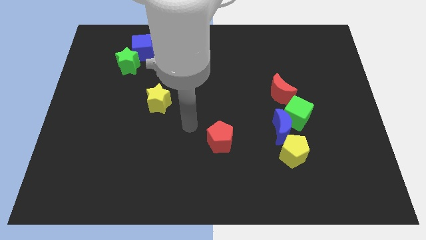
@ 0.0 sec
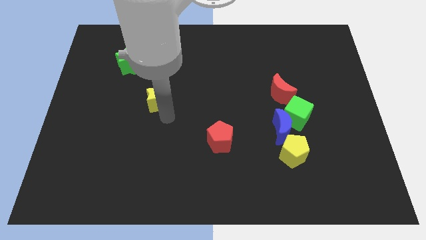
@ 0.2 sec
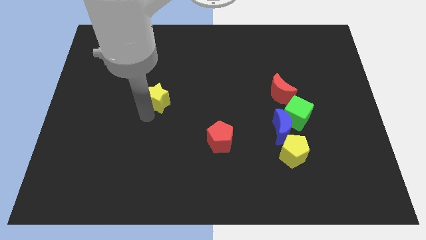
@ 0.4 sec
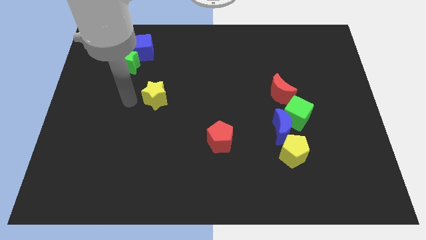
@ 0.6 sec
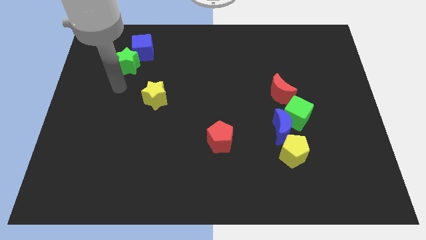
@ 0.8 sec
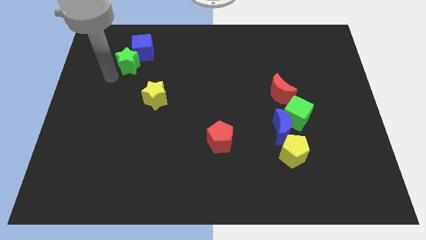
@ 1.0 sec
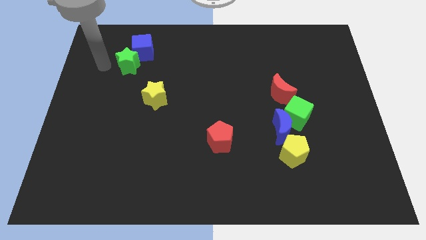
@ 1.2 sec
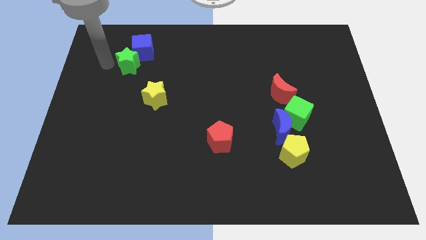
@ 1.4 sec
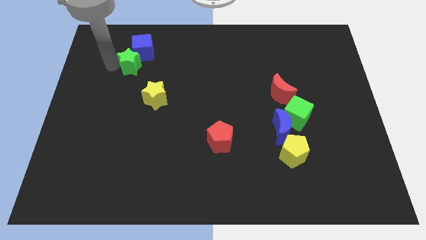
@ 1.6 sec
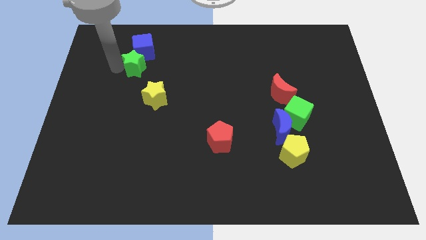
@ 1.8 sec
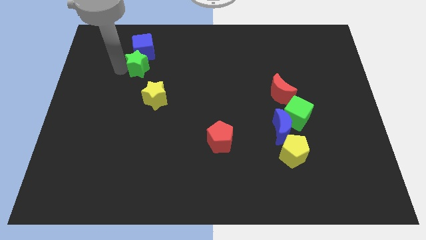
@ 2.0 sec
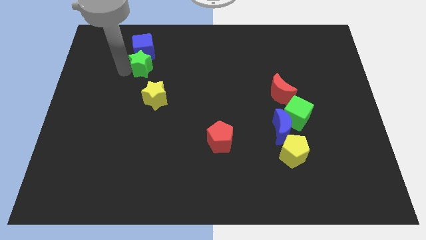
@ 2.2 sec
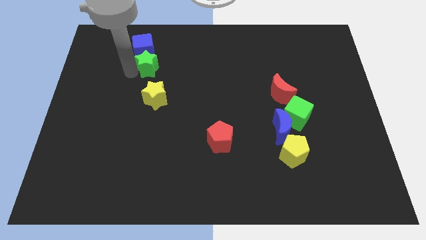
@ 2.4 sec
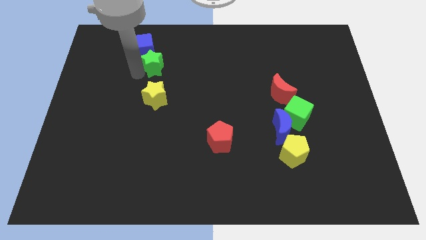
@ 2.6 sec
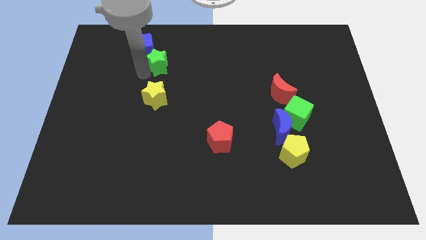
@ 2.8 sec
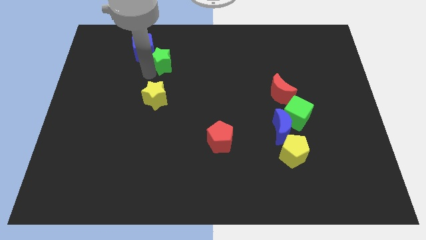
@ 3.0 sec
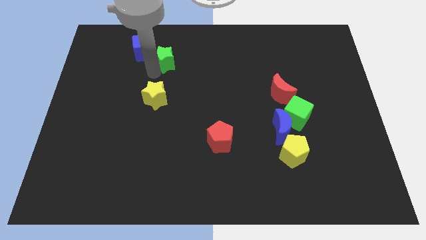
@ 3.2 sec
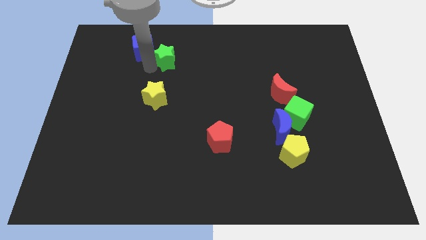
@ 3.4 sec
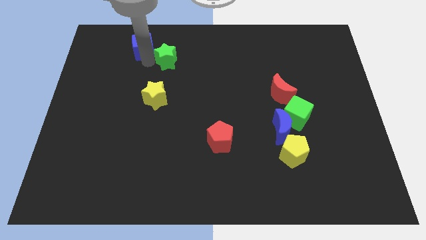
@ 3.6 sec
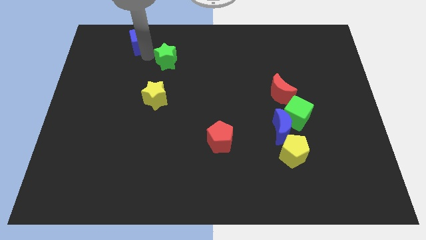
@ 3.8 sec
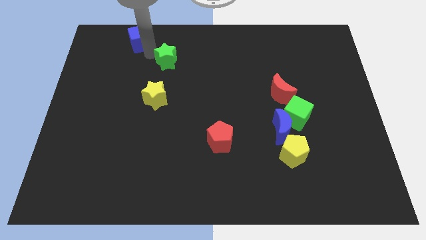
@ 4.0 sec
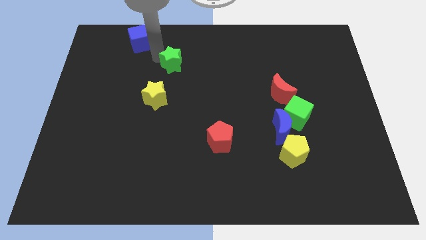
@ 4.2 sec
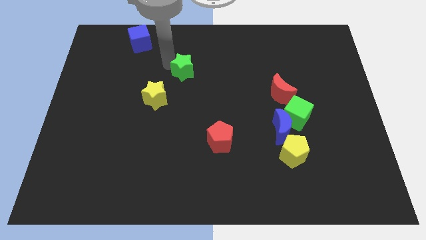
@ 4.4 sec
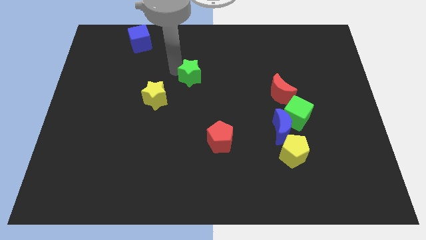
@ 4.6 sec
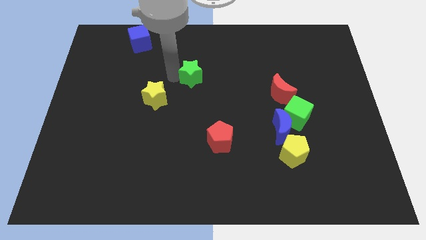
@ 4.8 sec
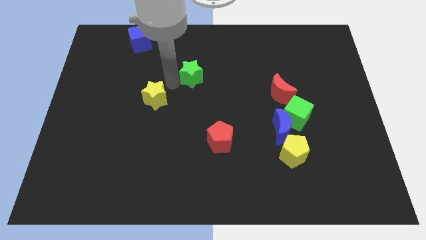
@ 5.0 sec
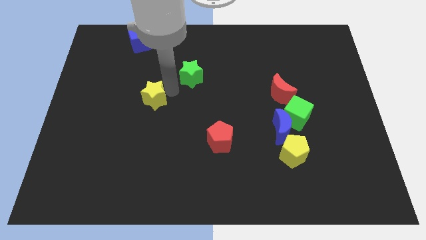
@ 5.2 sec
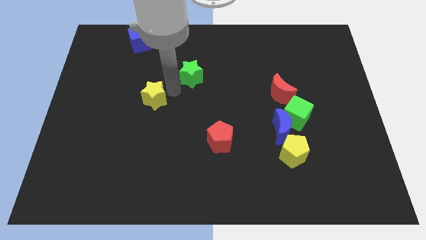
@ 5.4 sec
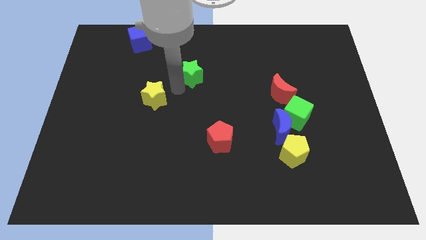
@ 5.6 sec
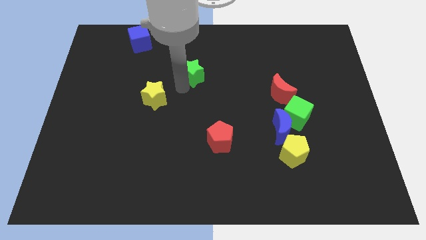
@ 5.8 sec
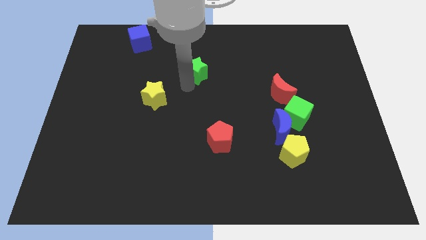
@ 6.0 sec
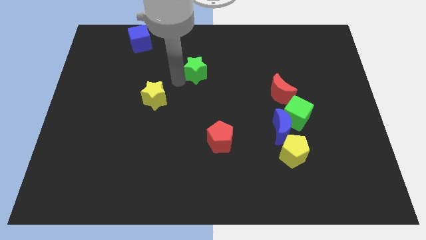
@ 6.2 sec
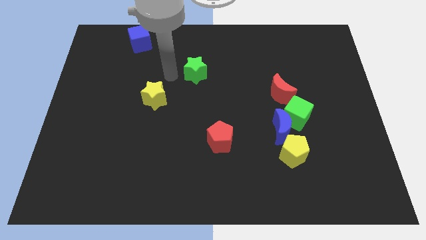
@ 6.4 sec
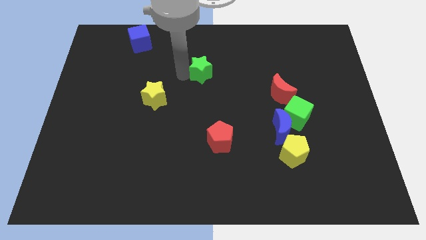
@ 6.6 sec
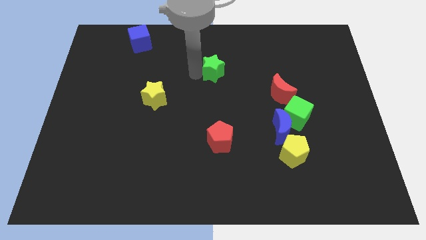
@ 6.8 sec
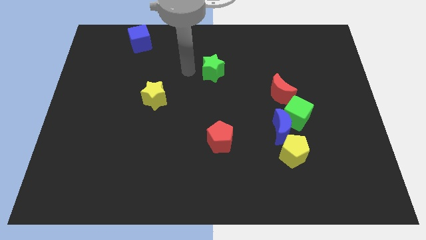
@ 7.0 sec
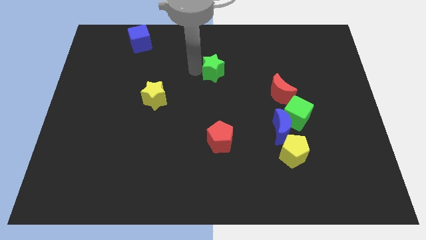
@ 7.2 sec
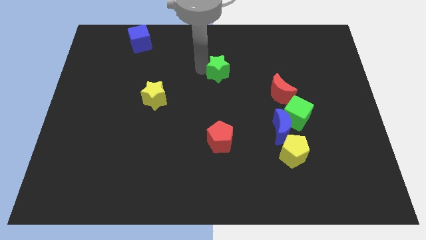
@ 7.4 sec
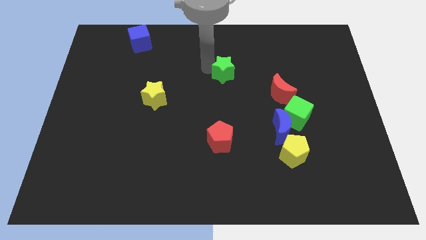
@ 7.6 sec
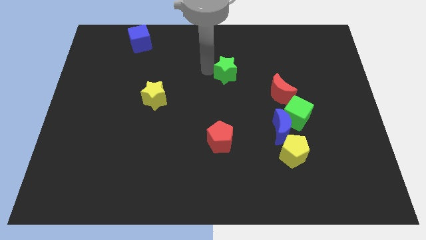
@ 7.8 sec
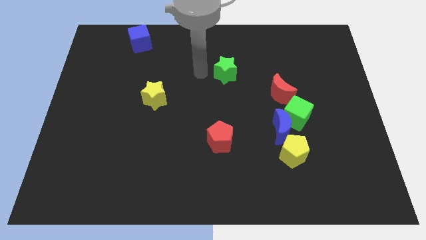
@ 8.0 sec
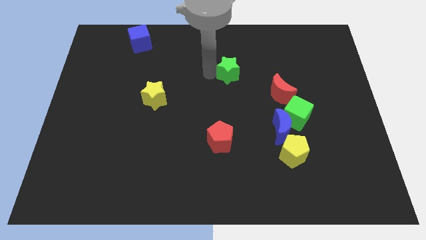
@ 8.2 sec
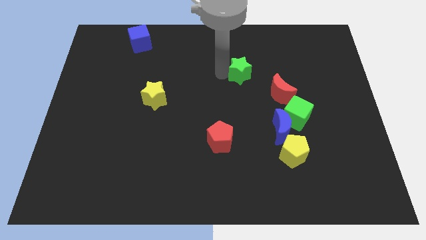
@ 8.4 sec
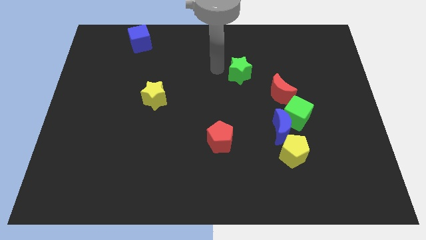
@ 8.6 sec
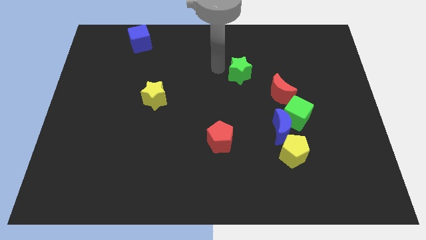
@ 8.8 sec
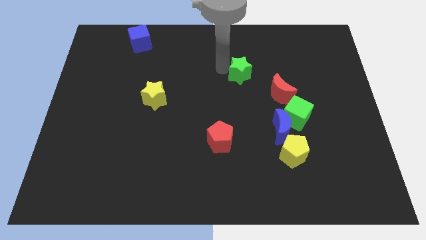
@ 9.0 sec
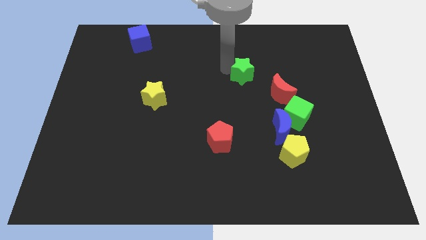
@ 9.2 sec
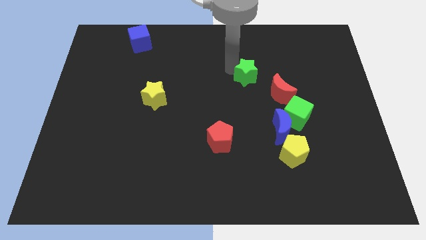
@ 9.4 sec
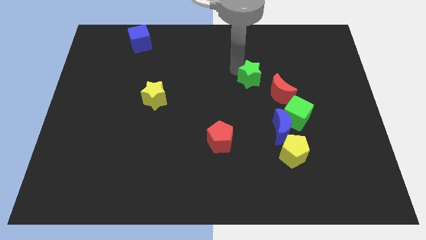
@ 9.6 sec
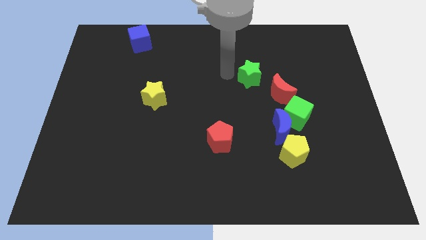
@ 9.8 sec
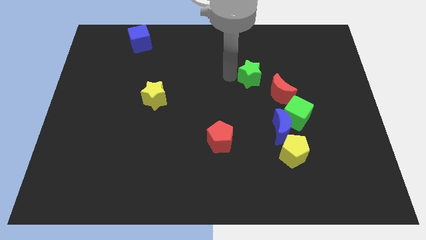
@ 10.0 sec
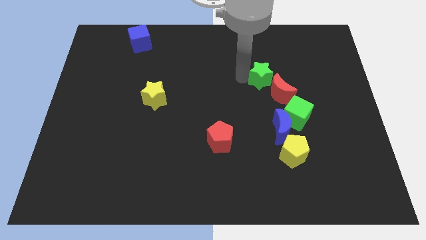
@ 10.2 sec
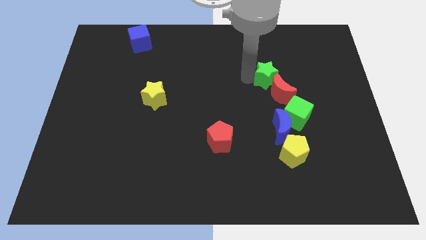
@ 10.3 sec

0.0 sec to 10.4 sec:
put the green star above the blue moon

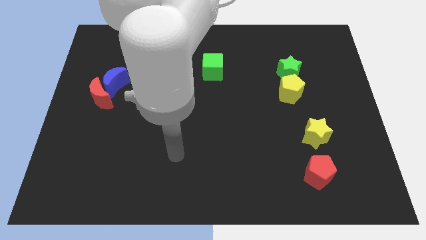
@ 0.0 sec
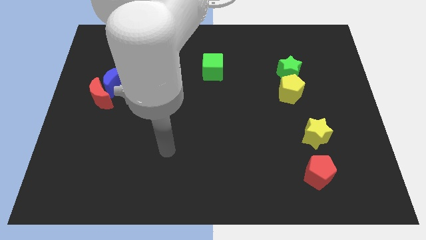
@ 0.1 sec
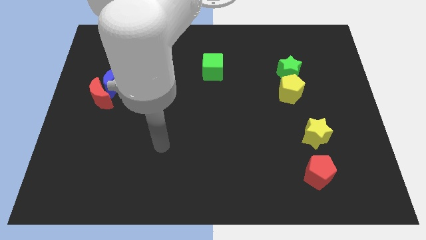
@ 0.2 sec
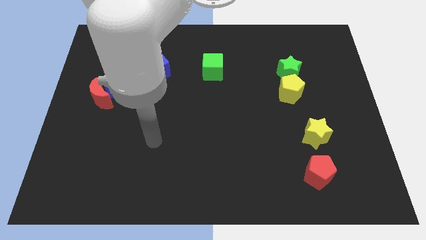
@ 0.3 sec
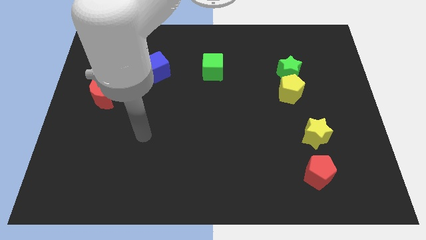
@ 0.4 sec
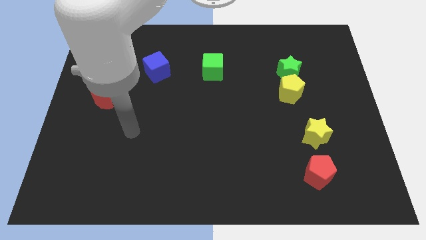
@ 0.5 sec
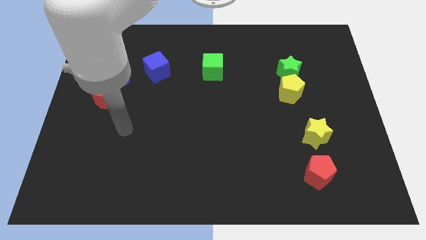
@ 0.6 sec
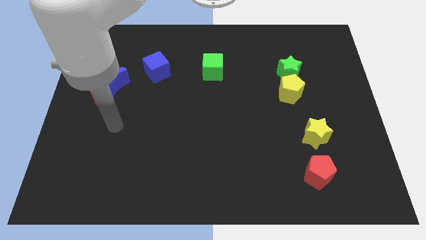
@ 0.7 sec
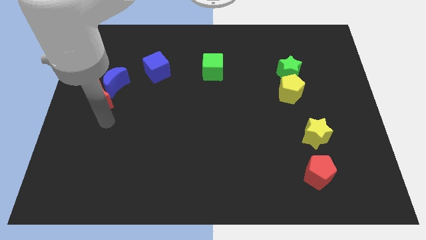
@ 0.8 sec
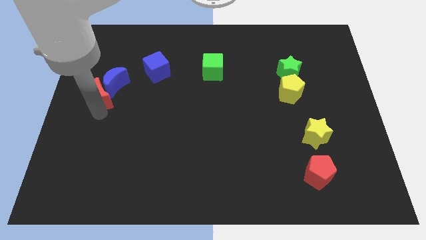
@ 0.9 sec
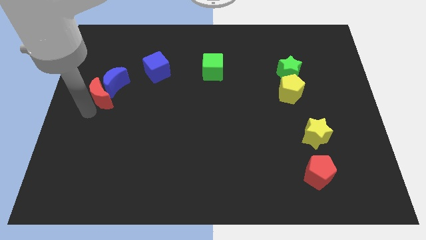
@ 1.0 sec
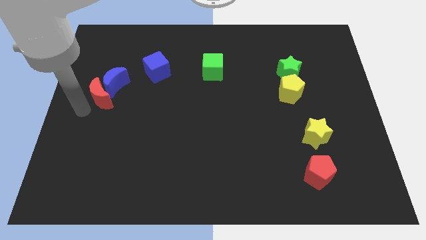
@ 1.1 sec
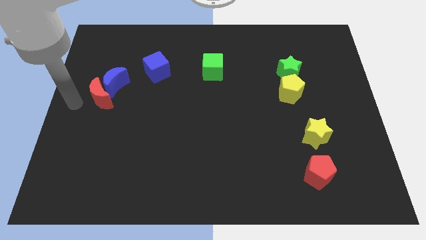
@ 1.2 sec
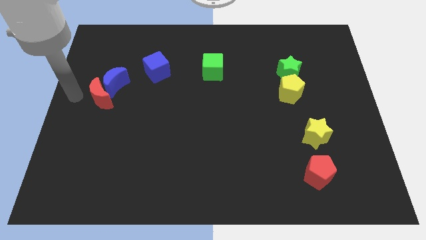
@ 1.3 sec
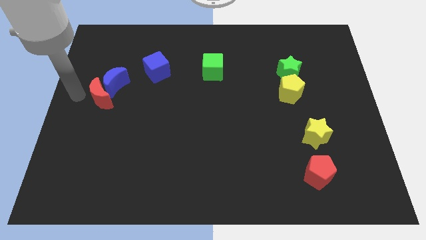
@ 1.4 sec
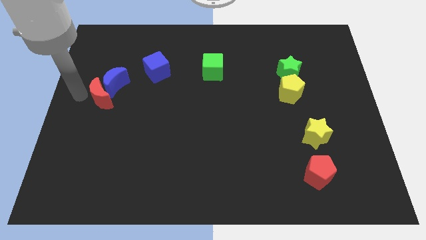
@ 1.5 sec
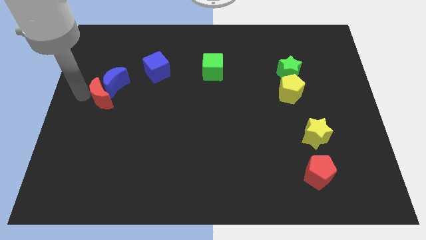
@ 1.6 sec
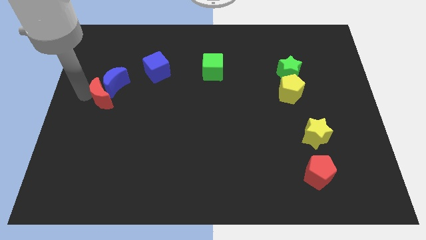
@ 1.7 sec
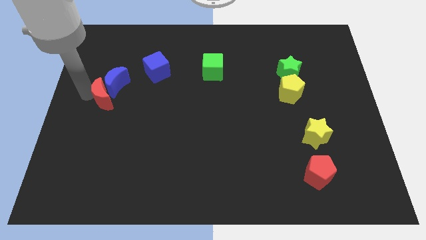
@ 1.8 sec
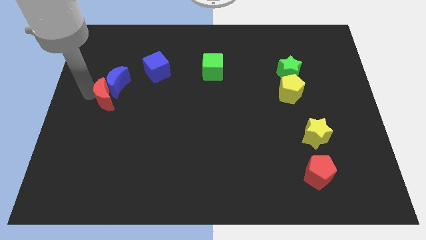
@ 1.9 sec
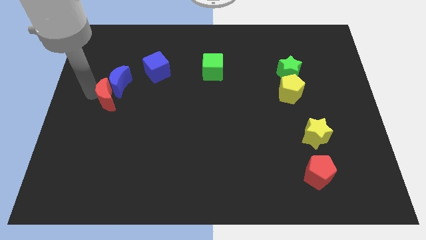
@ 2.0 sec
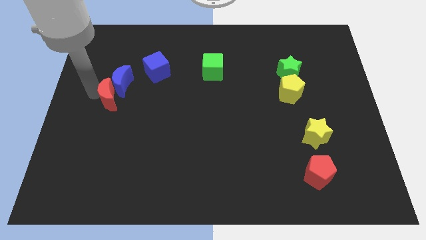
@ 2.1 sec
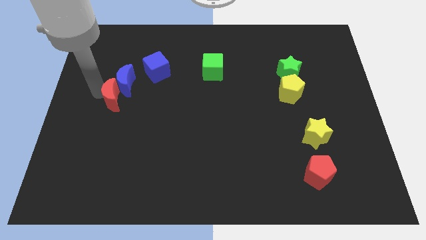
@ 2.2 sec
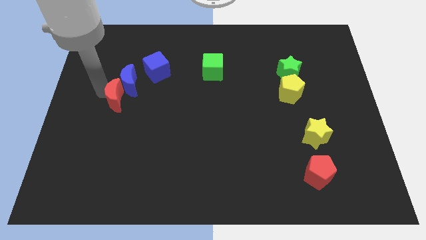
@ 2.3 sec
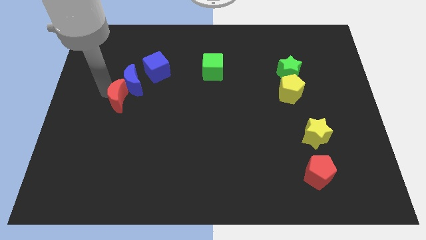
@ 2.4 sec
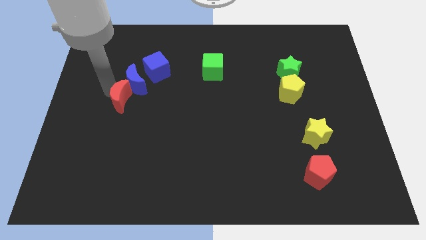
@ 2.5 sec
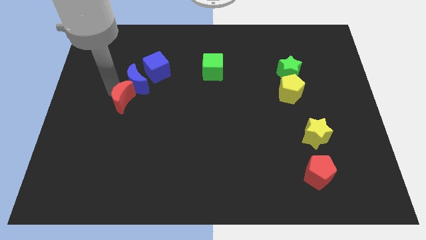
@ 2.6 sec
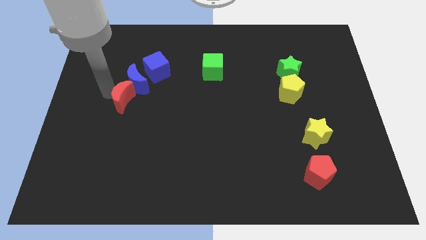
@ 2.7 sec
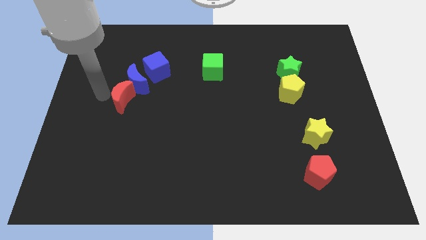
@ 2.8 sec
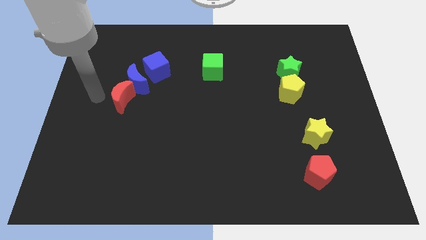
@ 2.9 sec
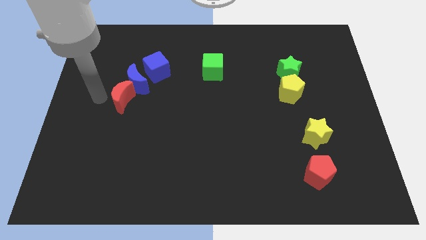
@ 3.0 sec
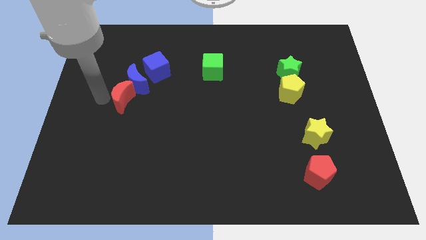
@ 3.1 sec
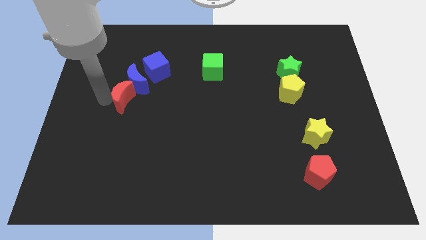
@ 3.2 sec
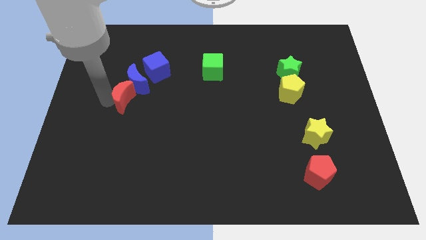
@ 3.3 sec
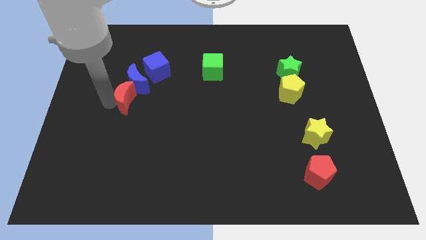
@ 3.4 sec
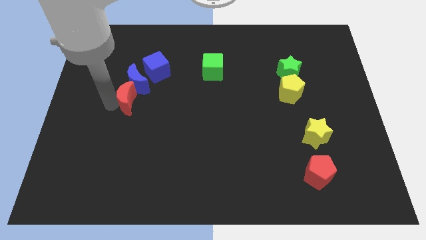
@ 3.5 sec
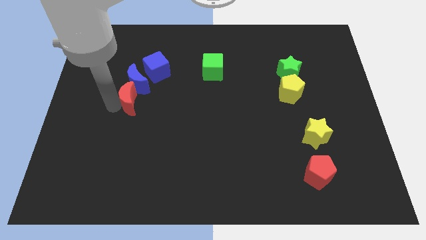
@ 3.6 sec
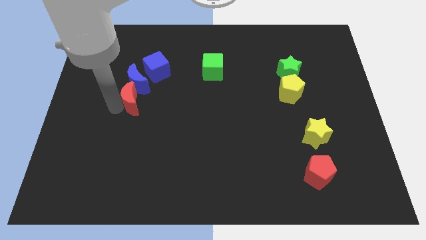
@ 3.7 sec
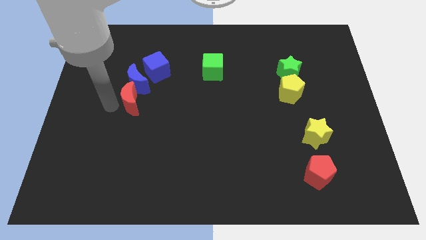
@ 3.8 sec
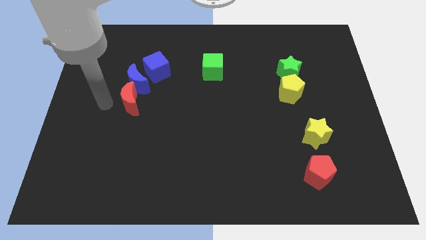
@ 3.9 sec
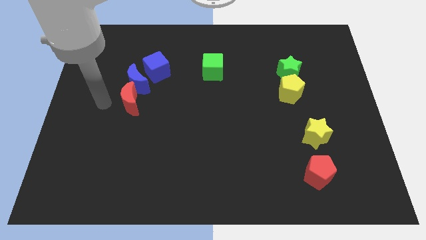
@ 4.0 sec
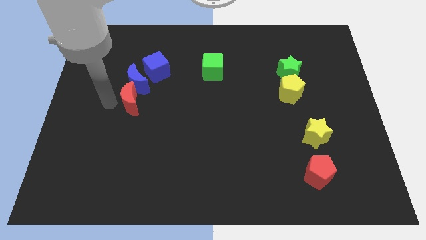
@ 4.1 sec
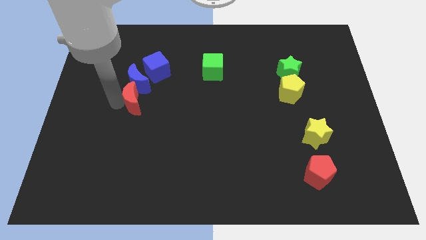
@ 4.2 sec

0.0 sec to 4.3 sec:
put the red moon to the bottom side of the blue cube
